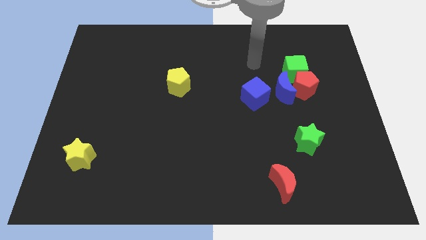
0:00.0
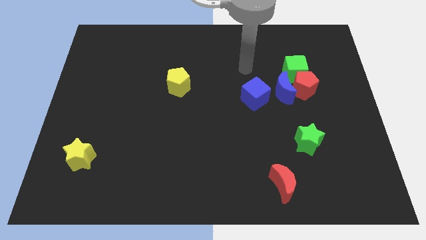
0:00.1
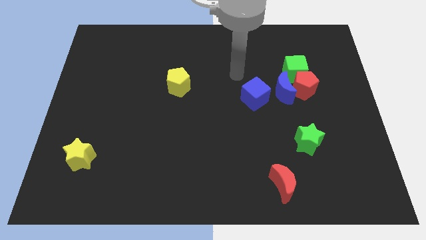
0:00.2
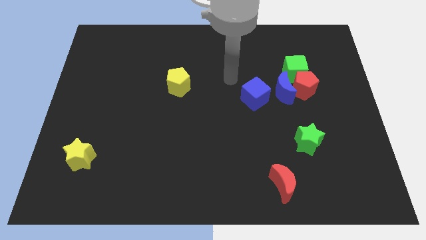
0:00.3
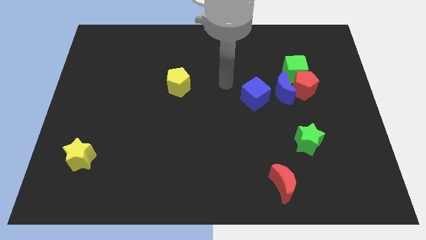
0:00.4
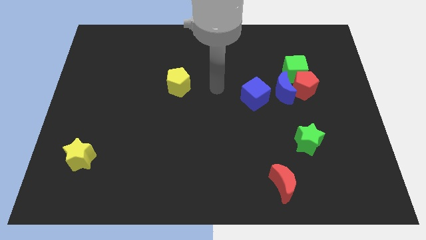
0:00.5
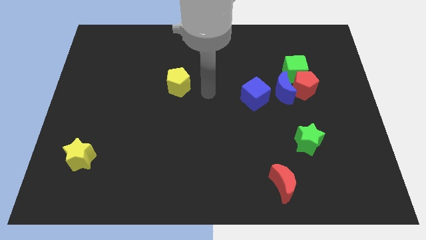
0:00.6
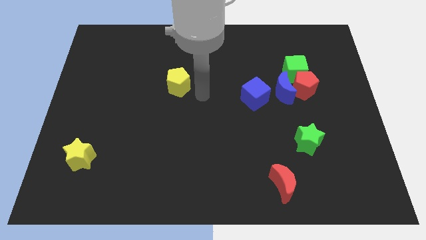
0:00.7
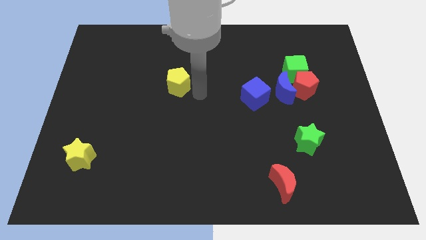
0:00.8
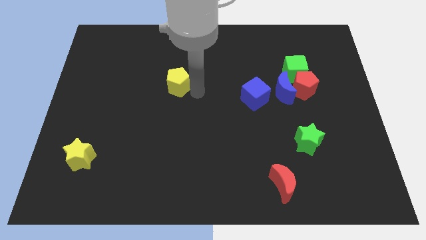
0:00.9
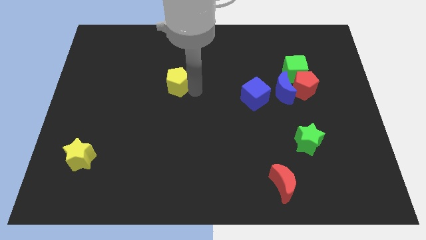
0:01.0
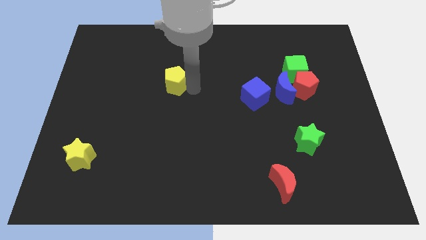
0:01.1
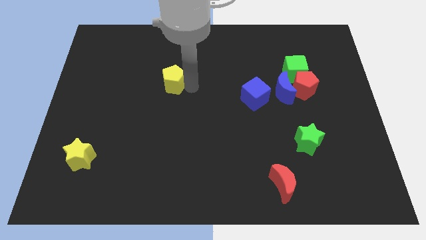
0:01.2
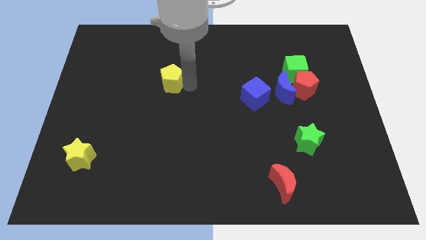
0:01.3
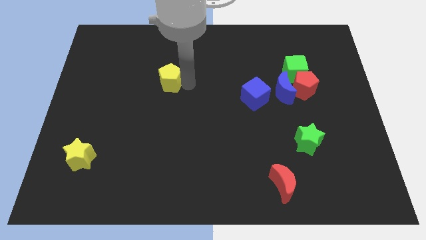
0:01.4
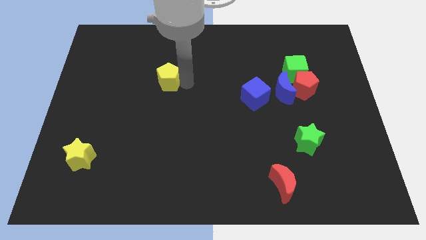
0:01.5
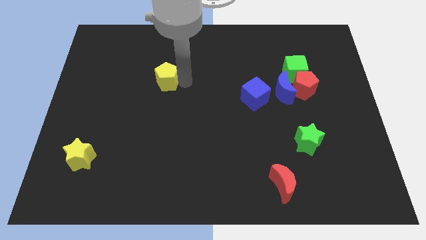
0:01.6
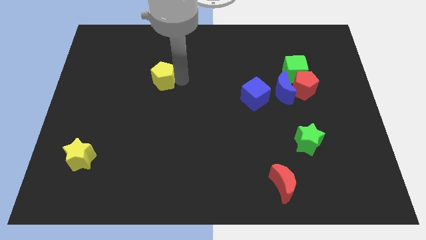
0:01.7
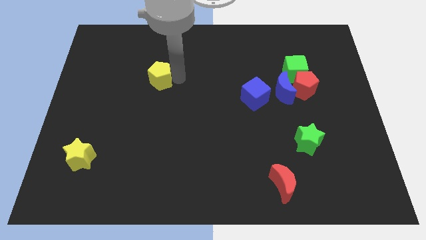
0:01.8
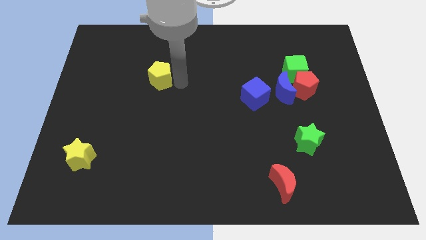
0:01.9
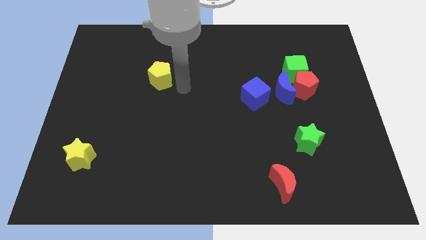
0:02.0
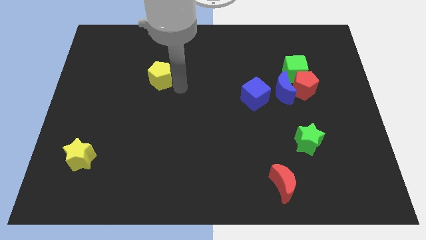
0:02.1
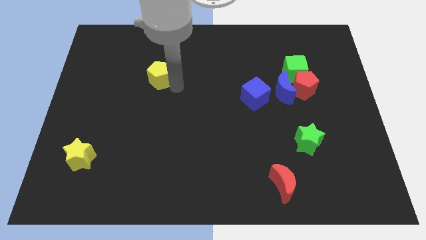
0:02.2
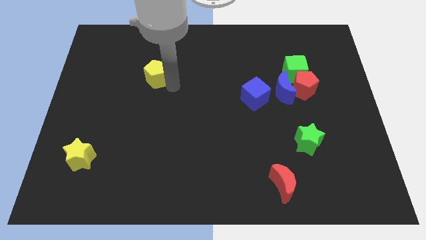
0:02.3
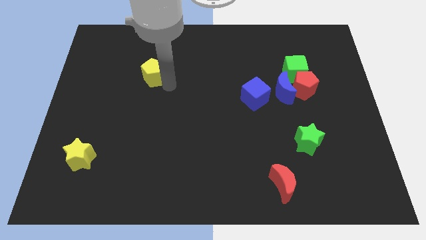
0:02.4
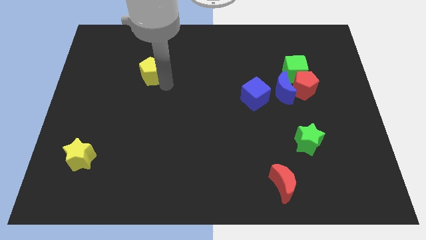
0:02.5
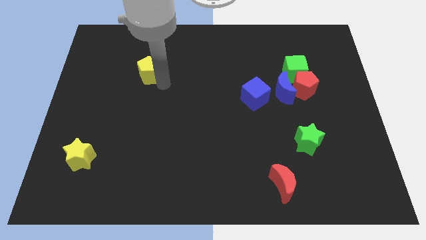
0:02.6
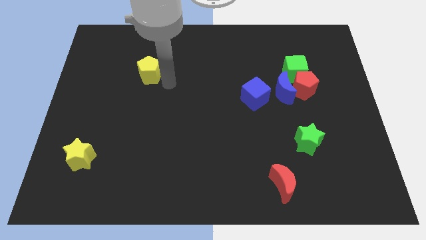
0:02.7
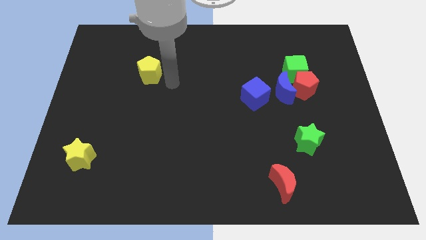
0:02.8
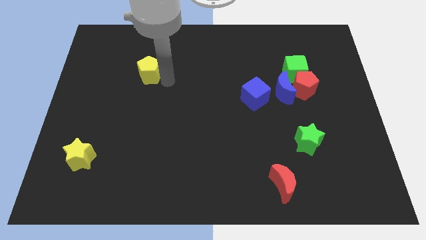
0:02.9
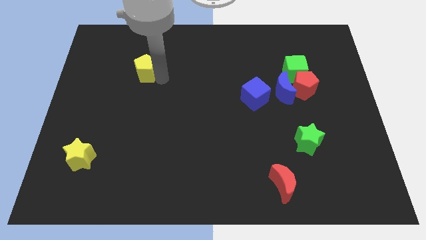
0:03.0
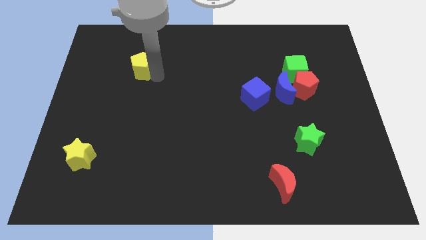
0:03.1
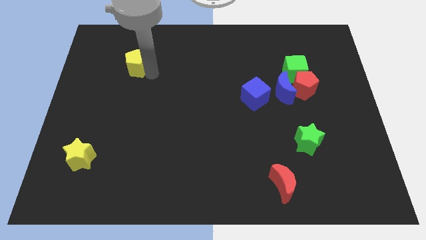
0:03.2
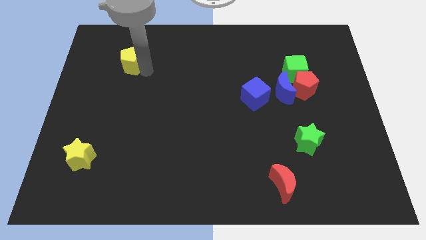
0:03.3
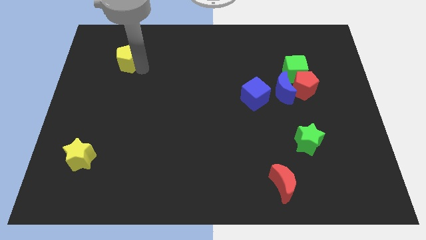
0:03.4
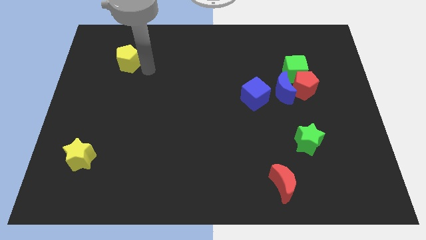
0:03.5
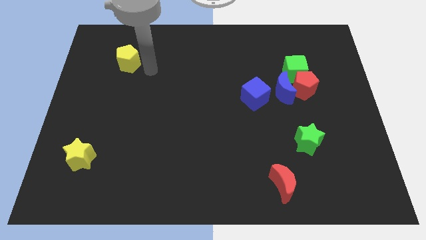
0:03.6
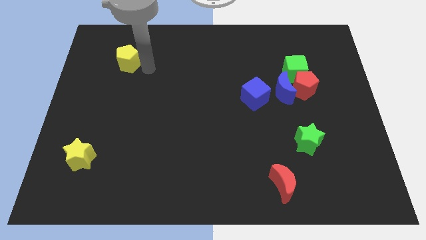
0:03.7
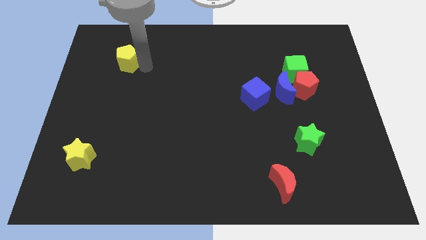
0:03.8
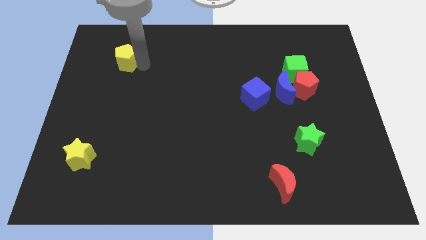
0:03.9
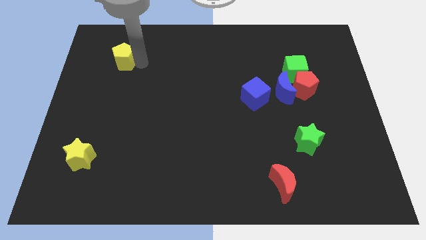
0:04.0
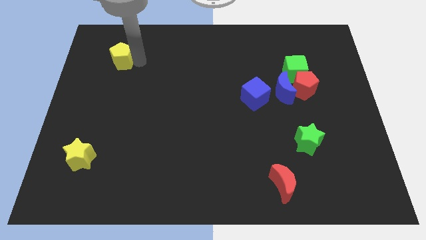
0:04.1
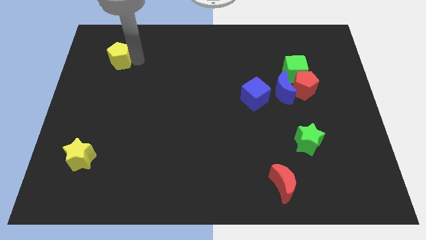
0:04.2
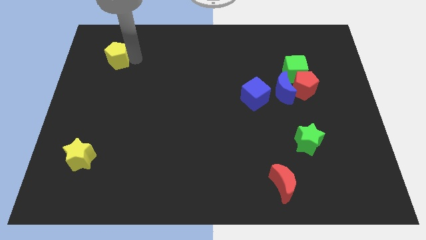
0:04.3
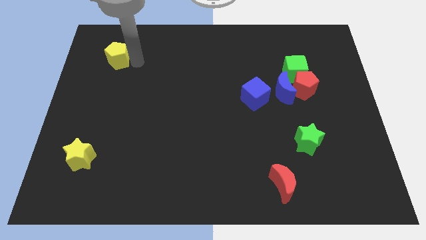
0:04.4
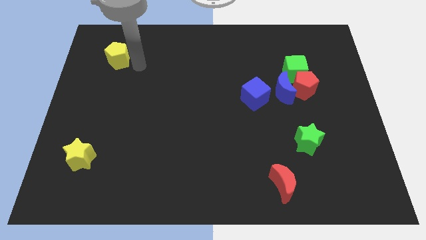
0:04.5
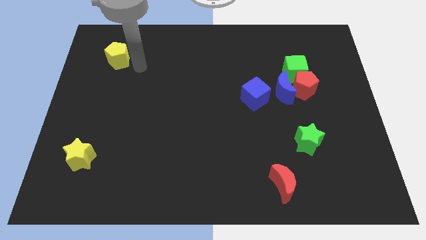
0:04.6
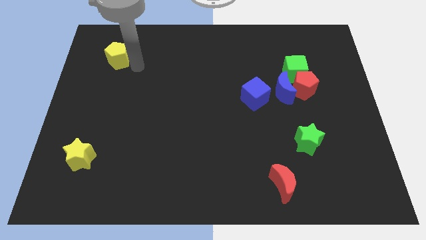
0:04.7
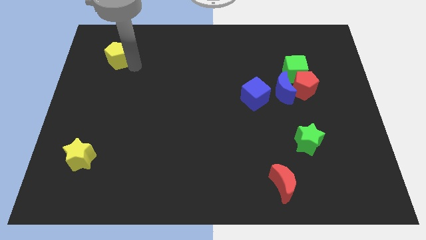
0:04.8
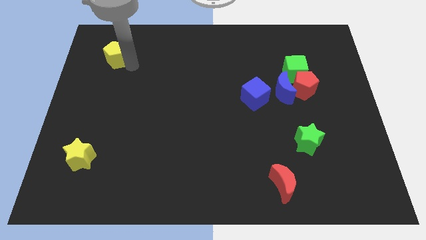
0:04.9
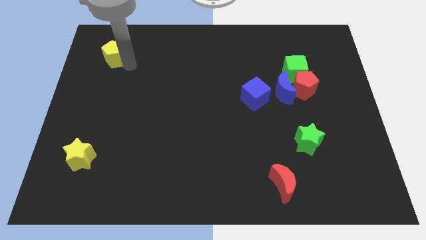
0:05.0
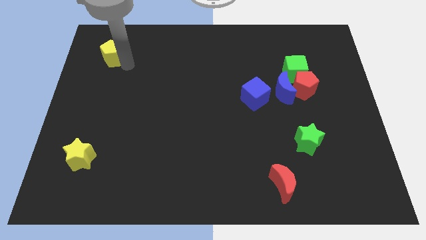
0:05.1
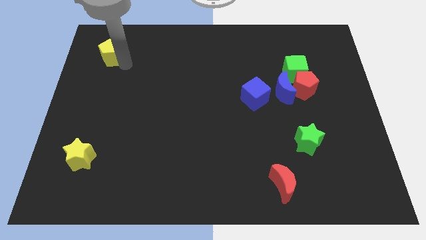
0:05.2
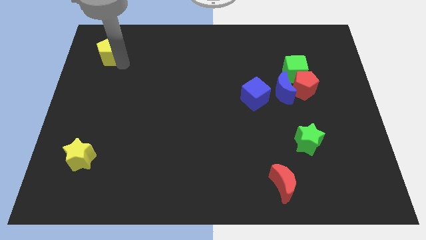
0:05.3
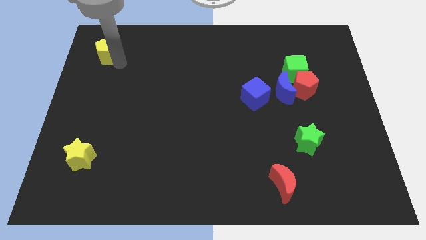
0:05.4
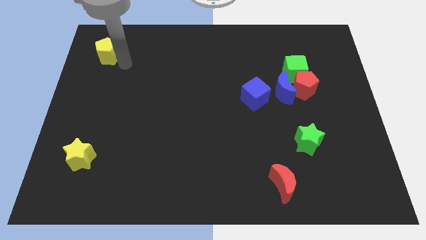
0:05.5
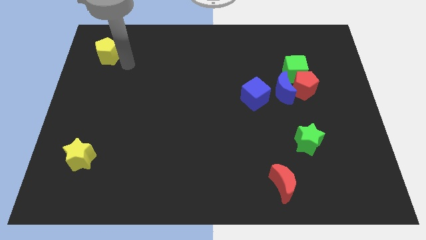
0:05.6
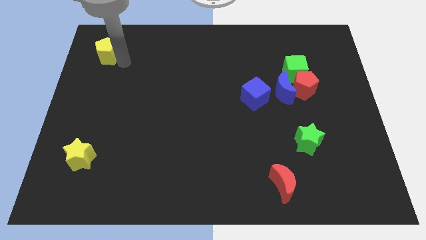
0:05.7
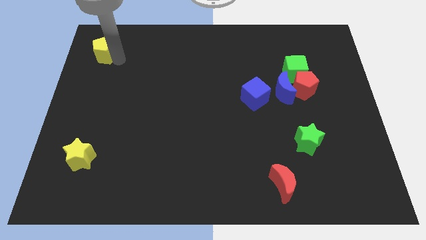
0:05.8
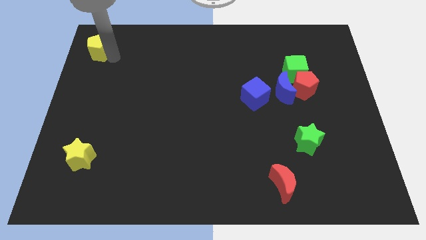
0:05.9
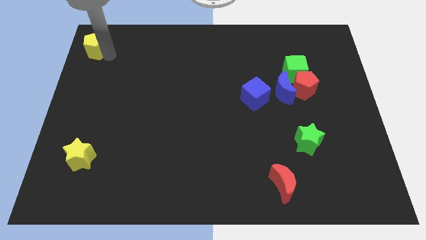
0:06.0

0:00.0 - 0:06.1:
push the yellow pentagon to the top left corner
